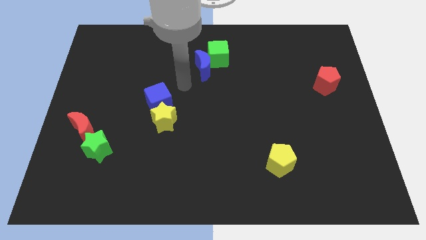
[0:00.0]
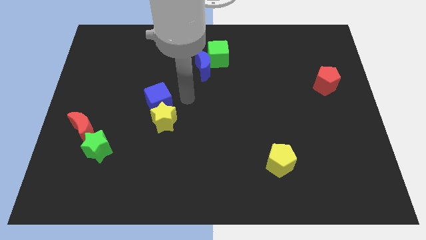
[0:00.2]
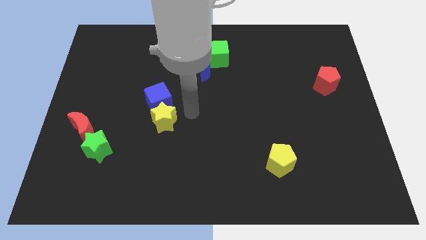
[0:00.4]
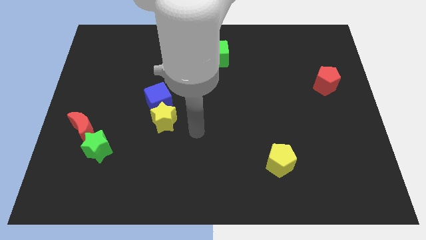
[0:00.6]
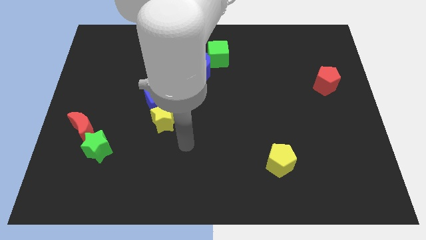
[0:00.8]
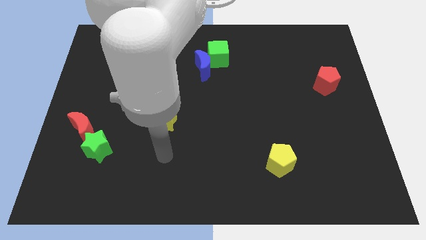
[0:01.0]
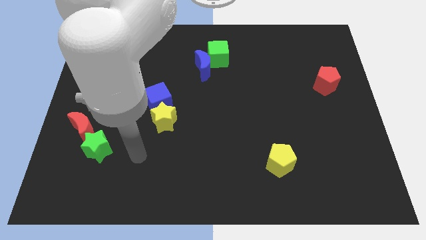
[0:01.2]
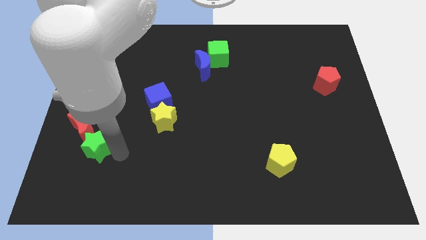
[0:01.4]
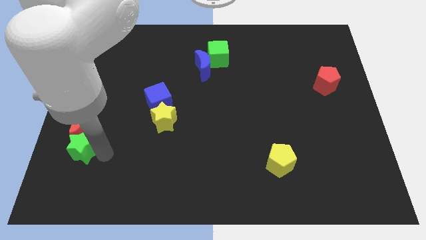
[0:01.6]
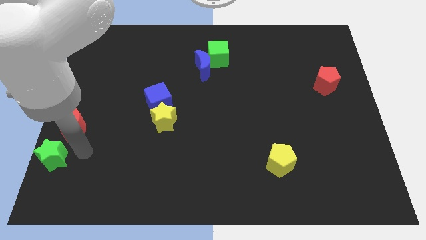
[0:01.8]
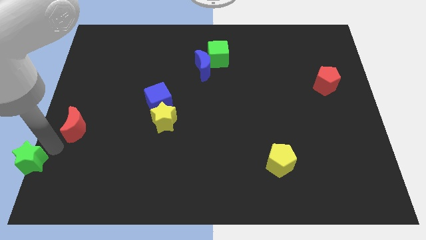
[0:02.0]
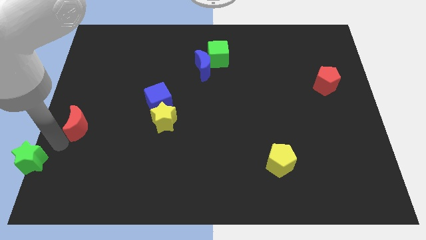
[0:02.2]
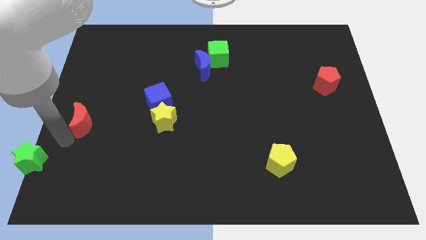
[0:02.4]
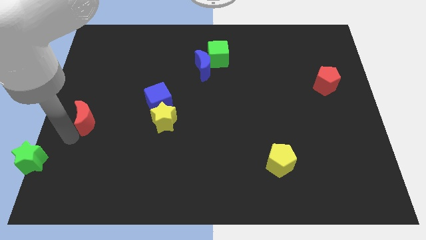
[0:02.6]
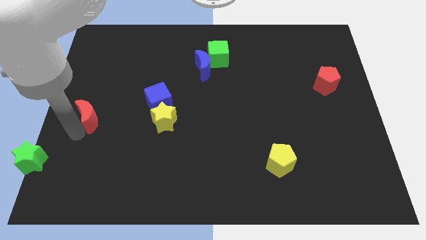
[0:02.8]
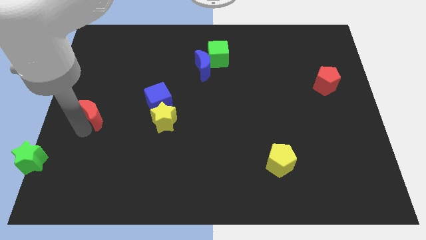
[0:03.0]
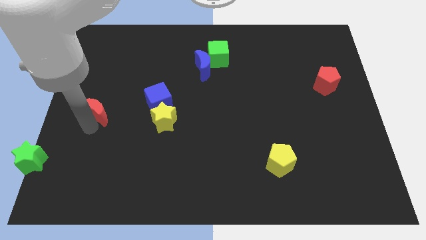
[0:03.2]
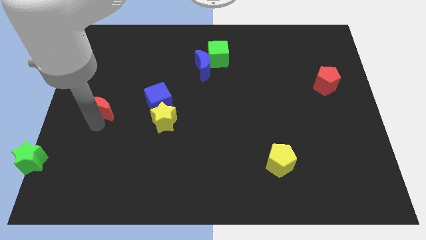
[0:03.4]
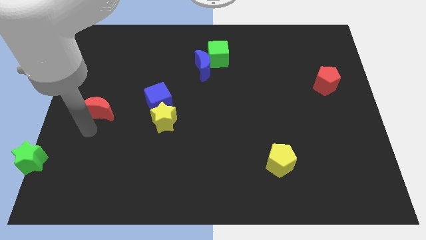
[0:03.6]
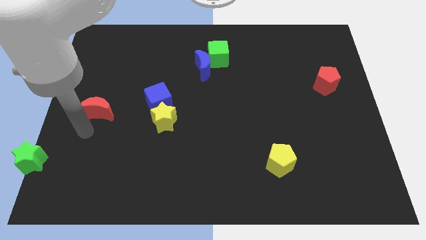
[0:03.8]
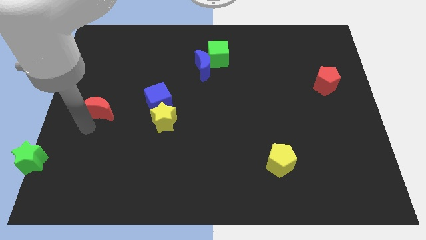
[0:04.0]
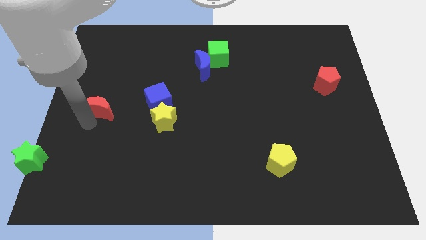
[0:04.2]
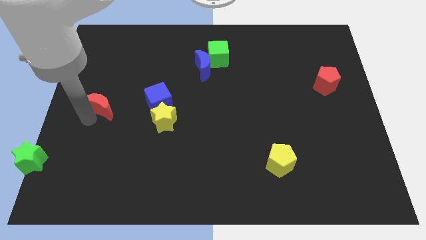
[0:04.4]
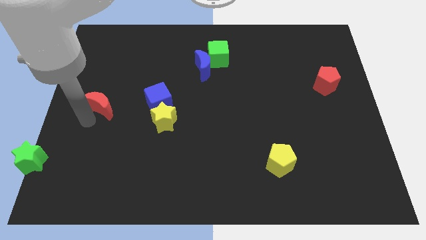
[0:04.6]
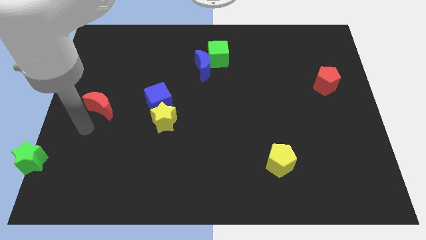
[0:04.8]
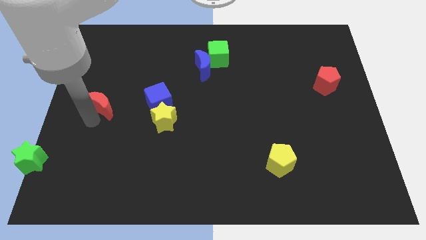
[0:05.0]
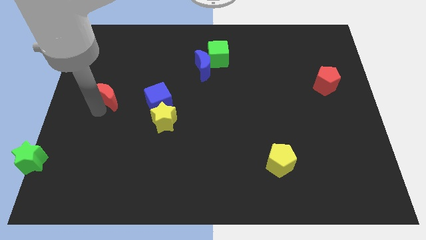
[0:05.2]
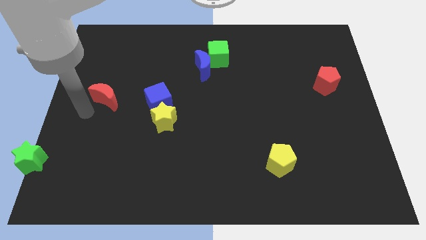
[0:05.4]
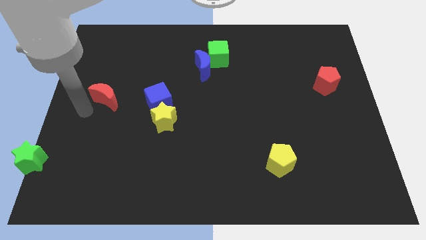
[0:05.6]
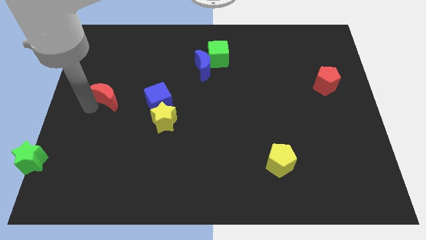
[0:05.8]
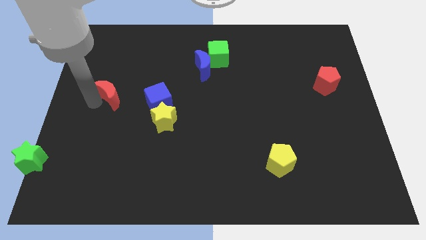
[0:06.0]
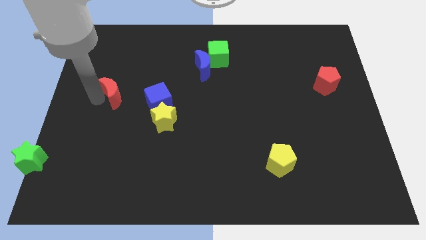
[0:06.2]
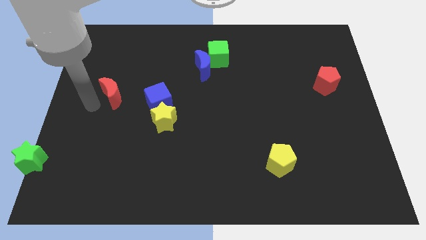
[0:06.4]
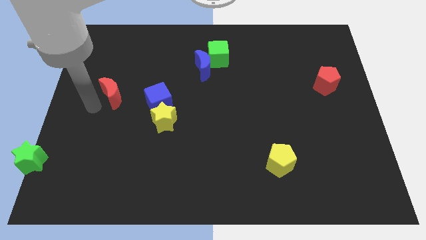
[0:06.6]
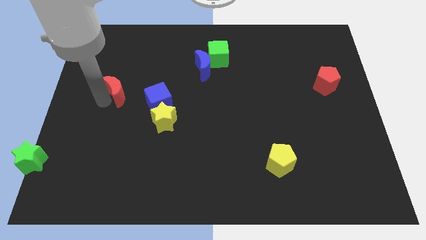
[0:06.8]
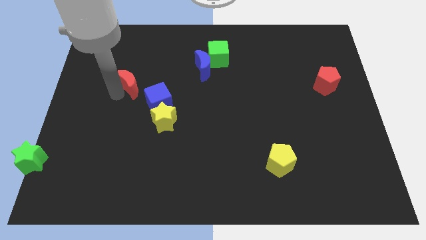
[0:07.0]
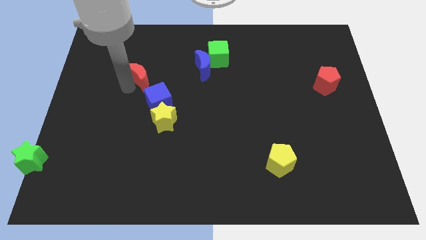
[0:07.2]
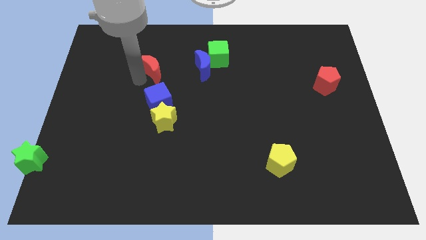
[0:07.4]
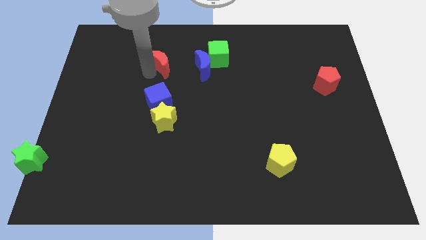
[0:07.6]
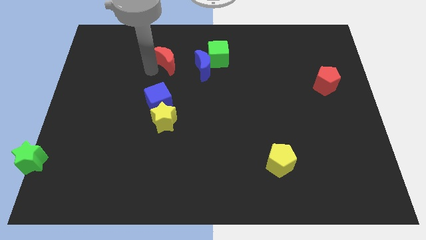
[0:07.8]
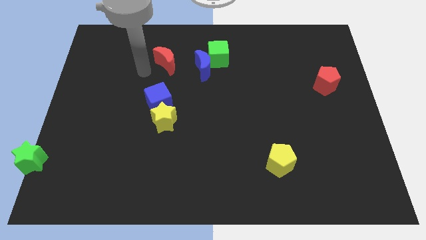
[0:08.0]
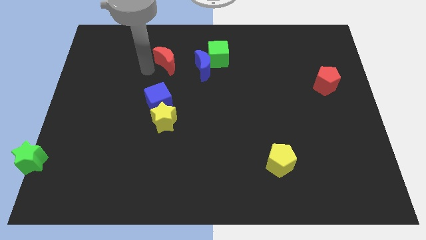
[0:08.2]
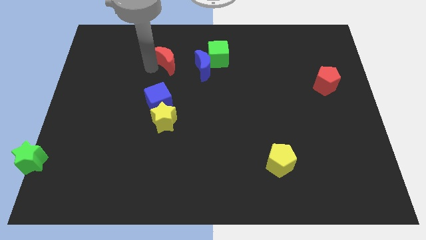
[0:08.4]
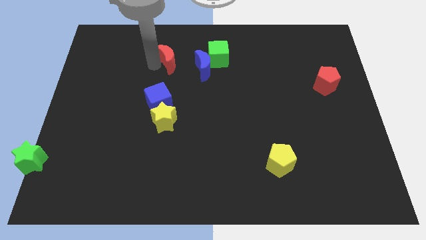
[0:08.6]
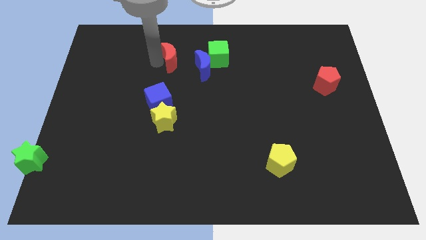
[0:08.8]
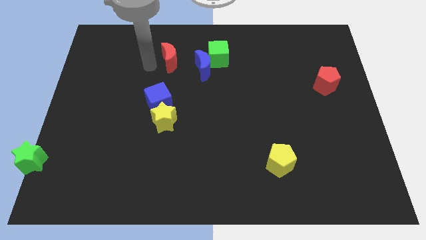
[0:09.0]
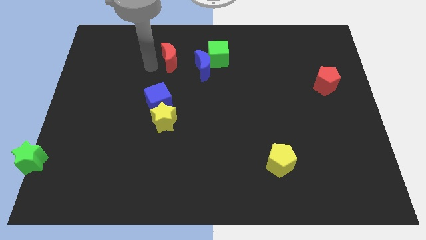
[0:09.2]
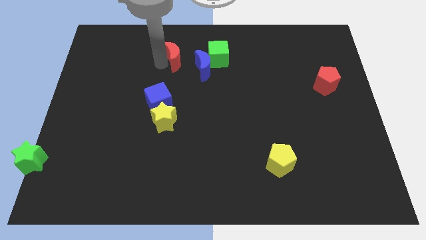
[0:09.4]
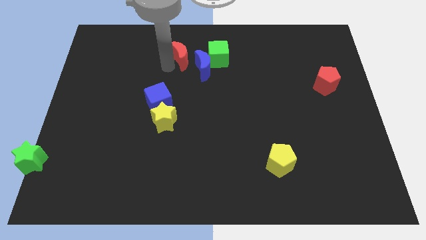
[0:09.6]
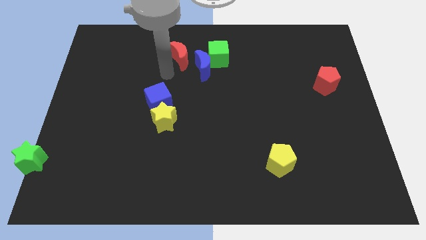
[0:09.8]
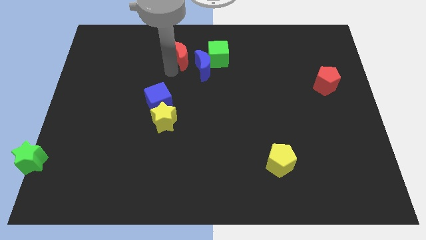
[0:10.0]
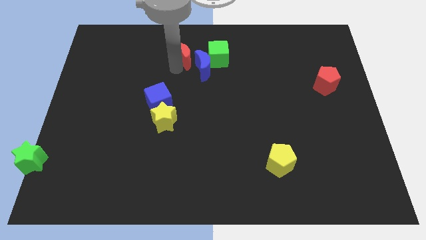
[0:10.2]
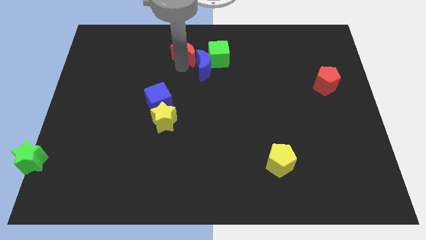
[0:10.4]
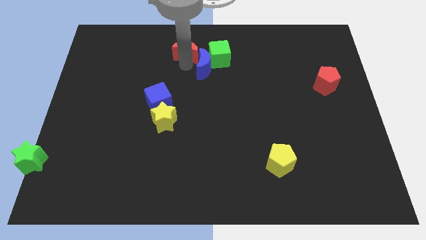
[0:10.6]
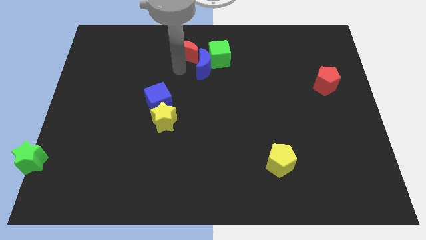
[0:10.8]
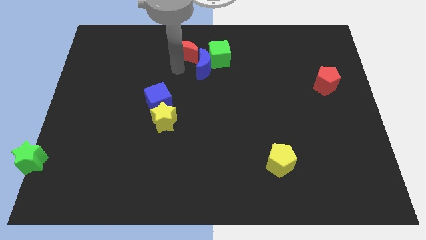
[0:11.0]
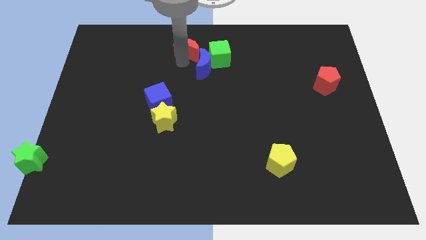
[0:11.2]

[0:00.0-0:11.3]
slide the red moon to the top

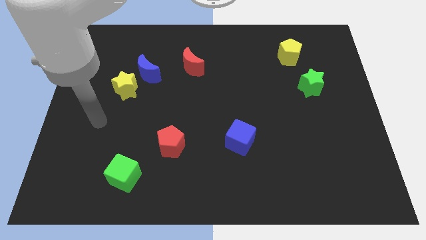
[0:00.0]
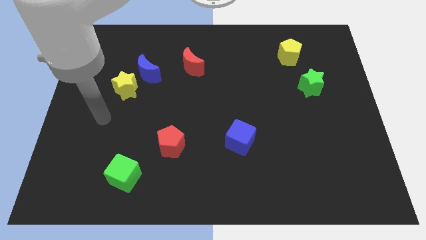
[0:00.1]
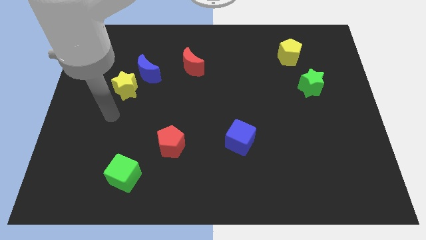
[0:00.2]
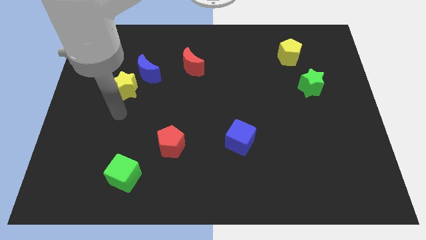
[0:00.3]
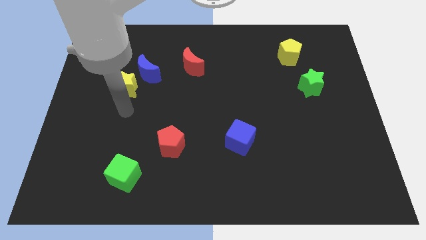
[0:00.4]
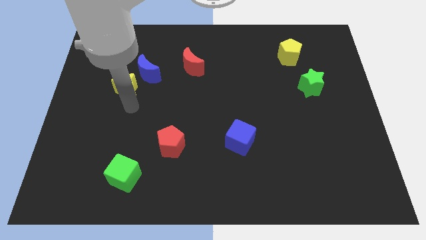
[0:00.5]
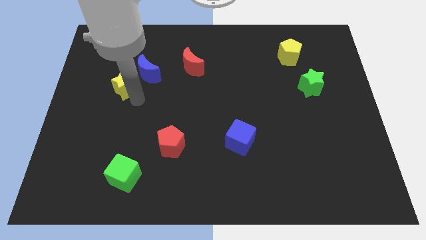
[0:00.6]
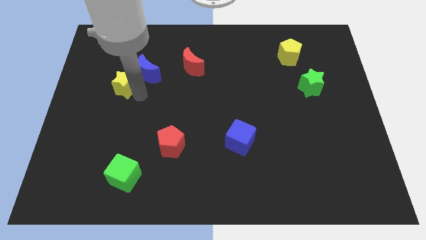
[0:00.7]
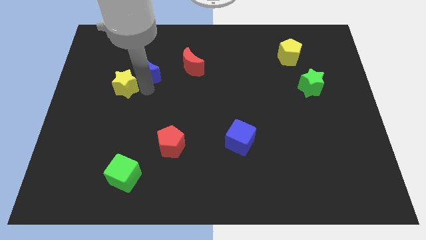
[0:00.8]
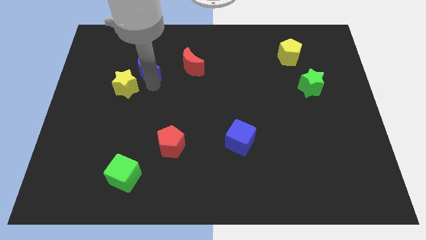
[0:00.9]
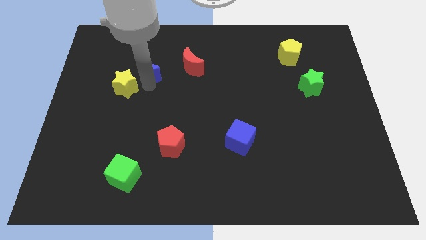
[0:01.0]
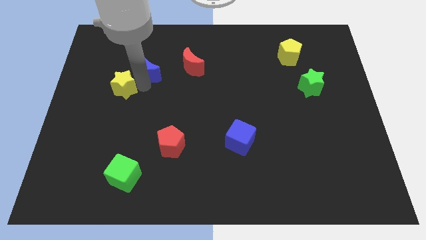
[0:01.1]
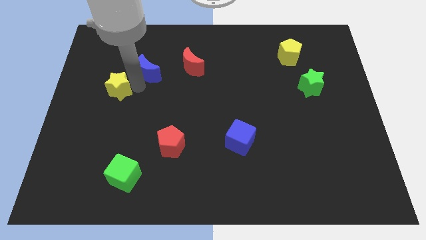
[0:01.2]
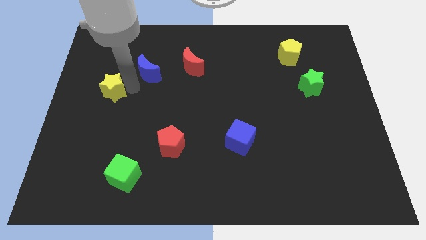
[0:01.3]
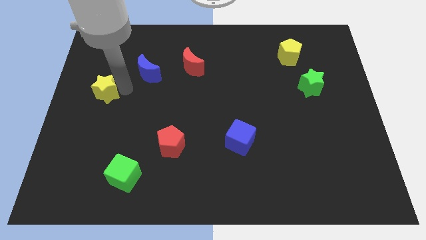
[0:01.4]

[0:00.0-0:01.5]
slide the yellow star to the left side

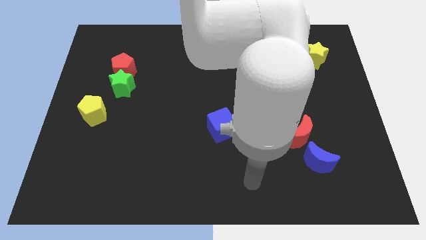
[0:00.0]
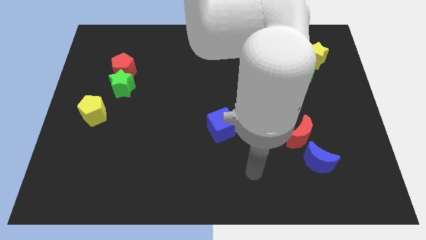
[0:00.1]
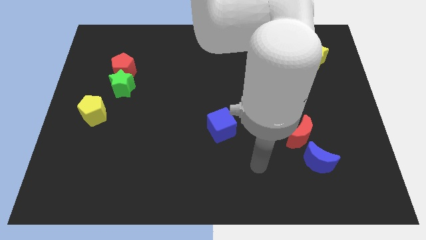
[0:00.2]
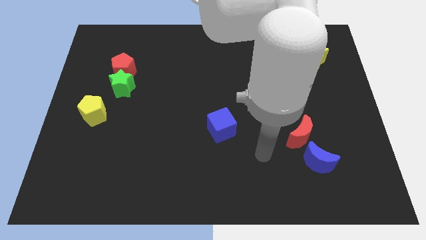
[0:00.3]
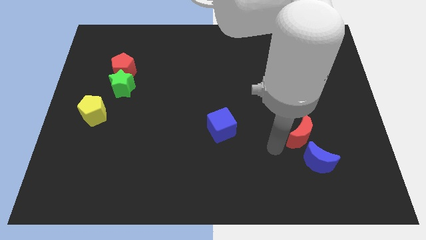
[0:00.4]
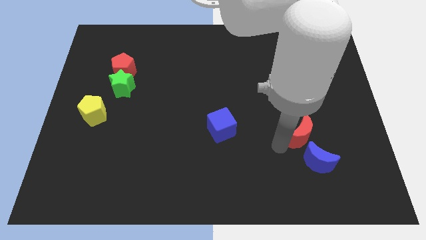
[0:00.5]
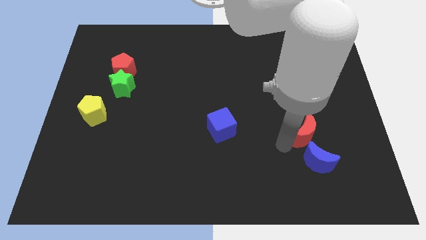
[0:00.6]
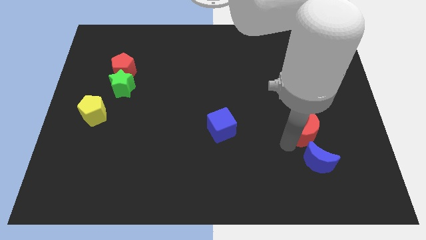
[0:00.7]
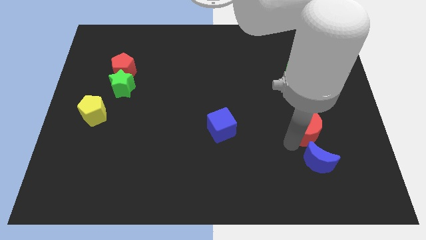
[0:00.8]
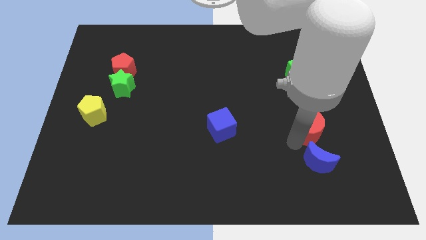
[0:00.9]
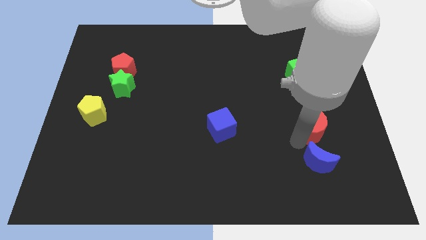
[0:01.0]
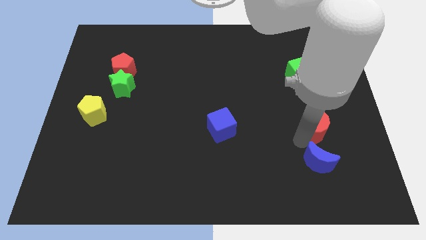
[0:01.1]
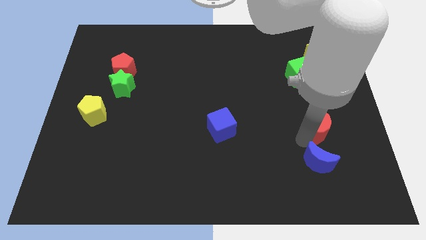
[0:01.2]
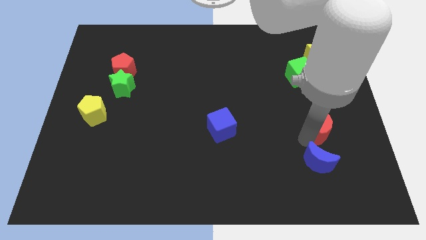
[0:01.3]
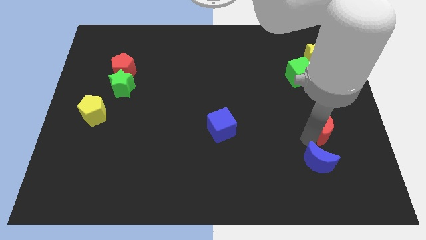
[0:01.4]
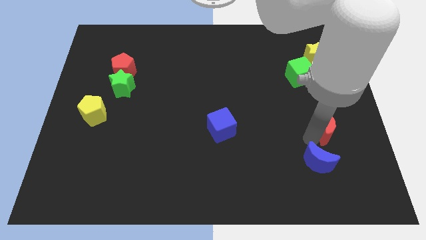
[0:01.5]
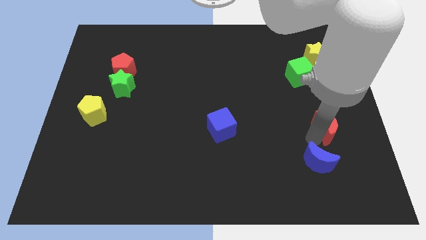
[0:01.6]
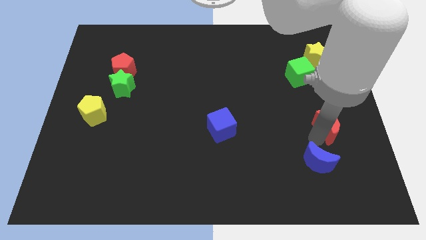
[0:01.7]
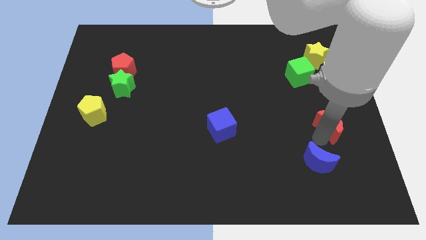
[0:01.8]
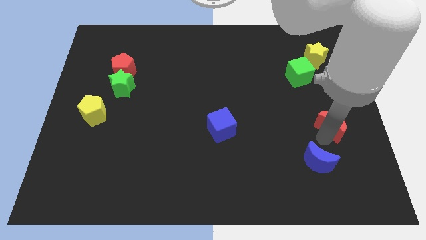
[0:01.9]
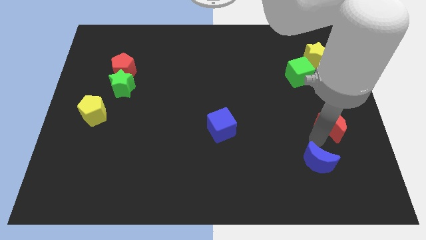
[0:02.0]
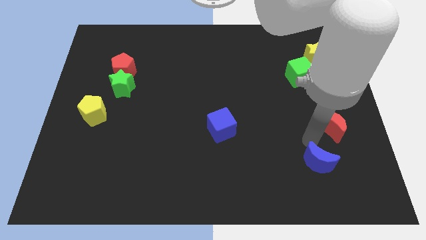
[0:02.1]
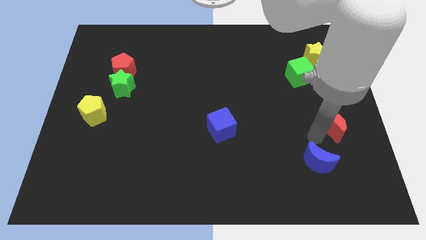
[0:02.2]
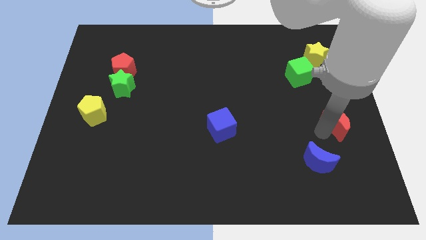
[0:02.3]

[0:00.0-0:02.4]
slide the red moon to the right side
